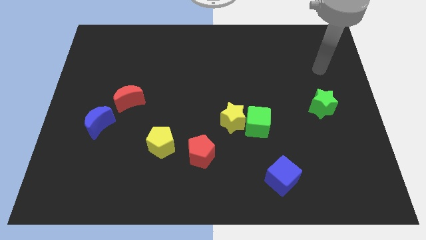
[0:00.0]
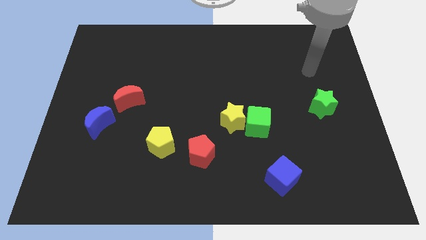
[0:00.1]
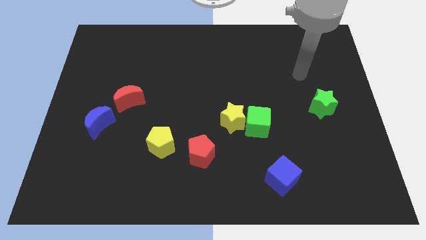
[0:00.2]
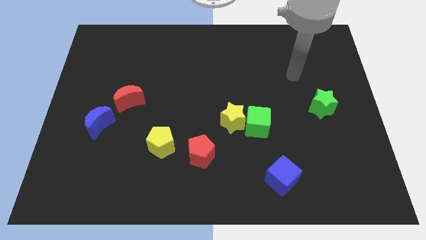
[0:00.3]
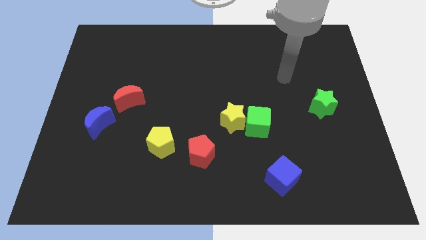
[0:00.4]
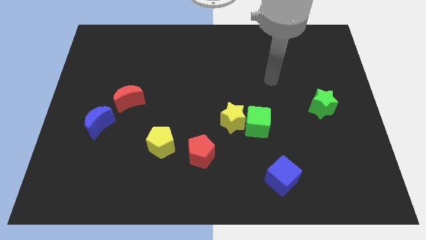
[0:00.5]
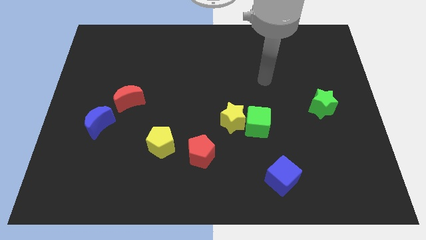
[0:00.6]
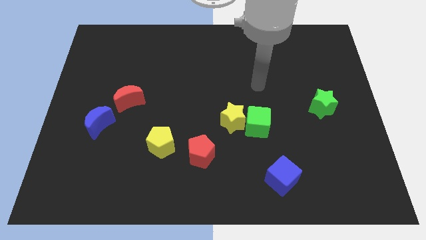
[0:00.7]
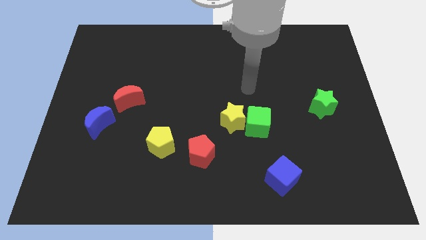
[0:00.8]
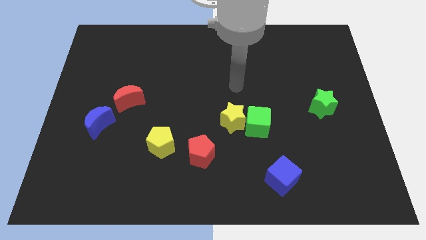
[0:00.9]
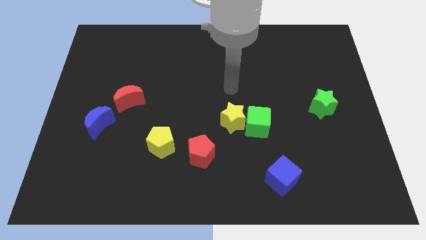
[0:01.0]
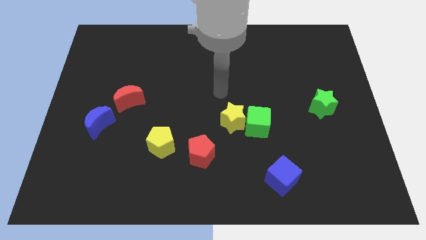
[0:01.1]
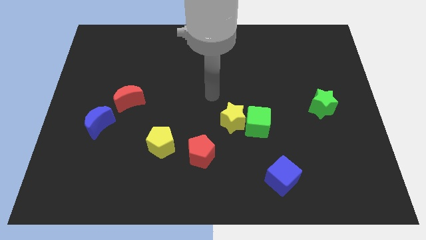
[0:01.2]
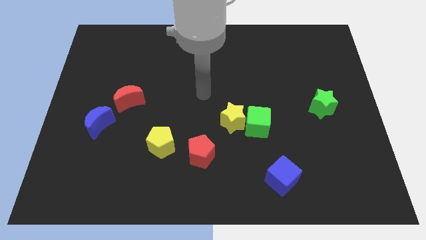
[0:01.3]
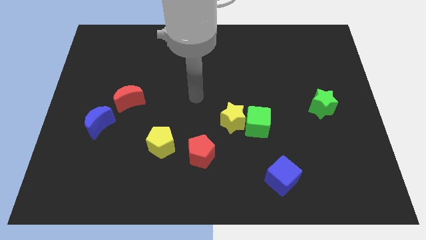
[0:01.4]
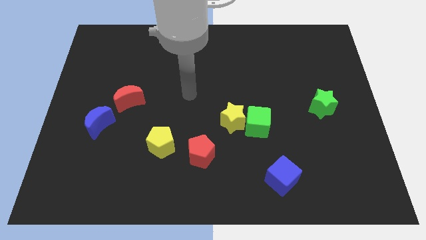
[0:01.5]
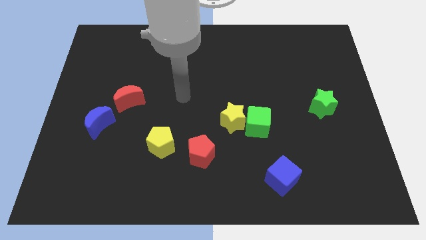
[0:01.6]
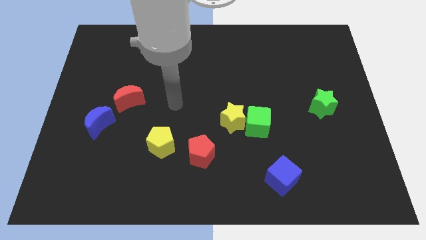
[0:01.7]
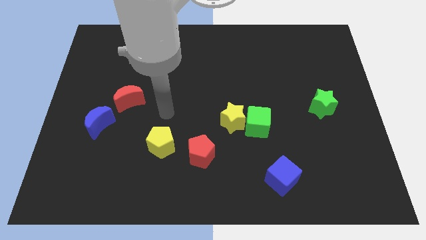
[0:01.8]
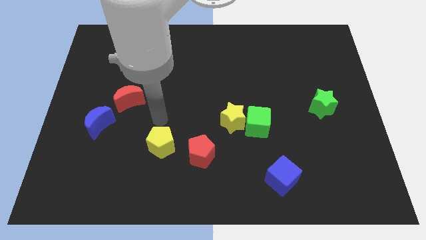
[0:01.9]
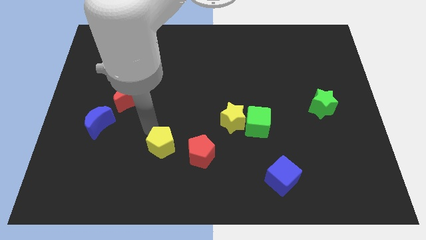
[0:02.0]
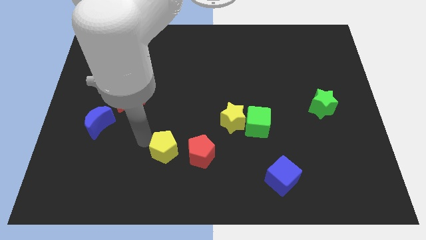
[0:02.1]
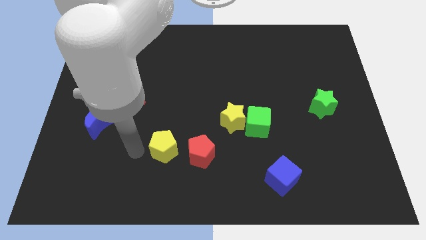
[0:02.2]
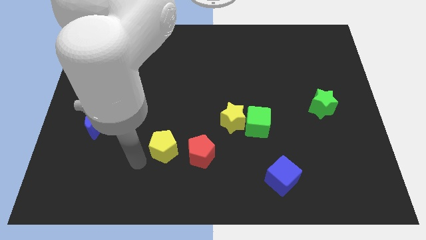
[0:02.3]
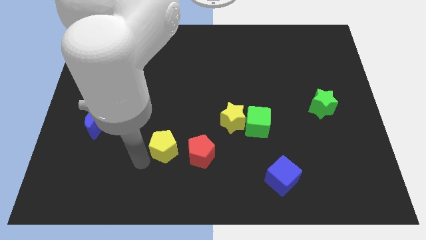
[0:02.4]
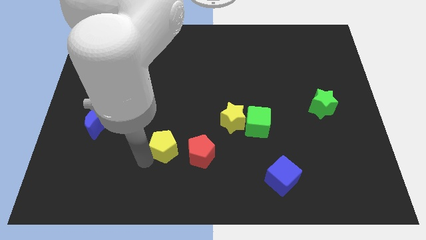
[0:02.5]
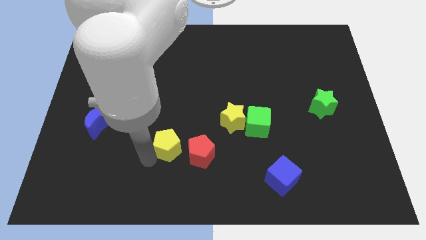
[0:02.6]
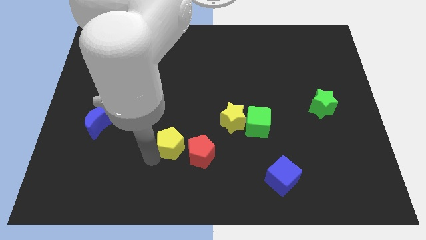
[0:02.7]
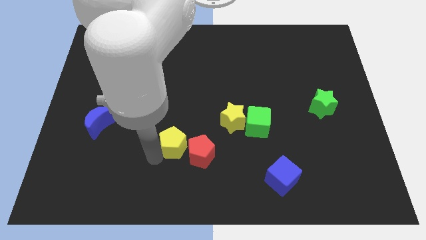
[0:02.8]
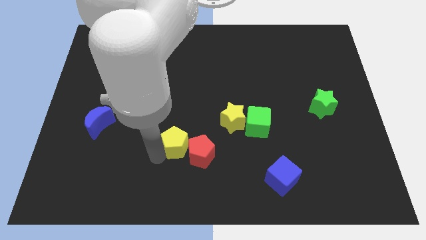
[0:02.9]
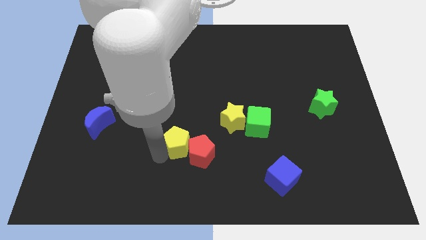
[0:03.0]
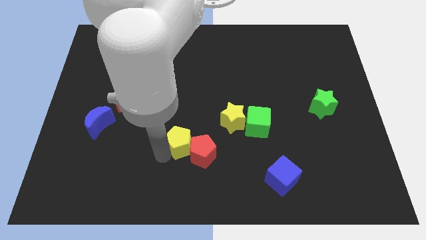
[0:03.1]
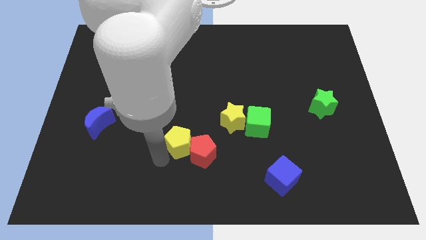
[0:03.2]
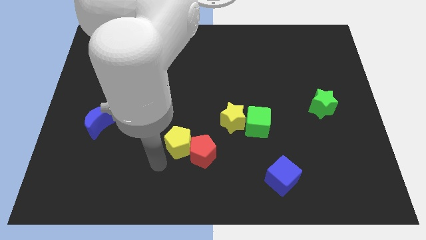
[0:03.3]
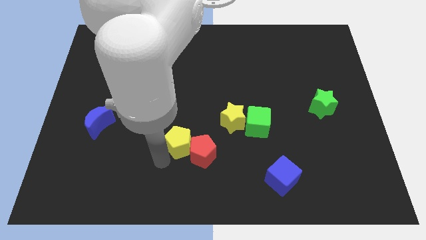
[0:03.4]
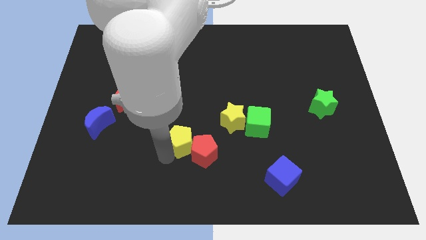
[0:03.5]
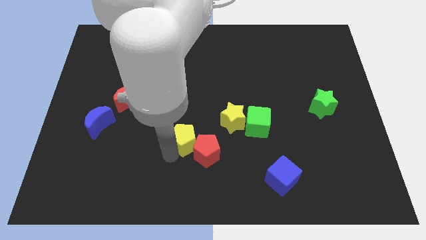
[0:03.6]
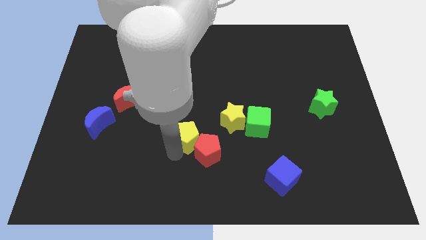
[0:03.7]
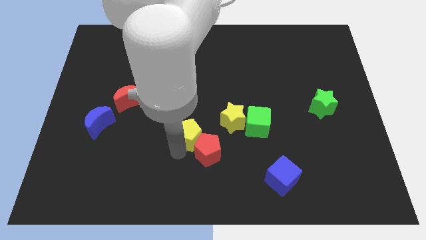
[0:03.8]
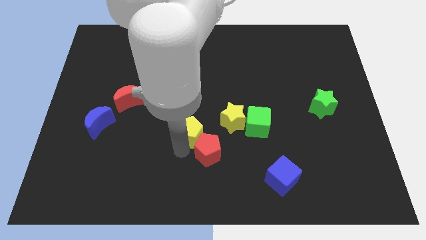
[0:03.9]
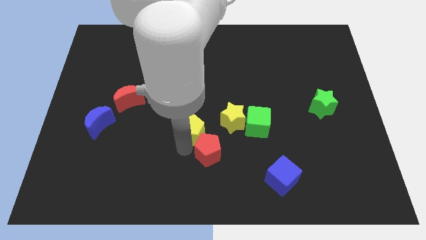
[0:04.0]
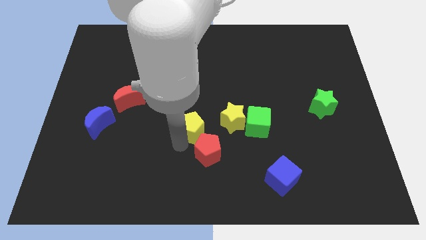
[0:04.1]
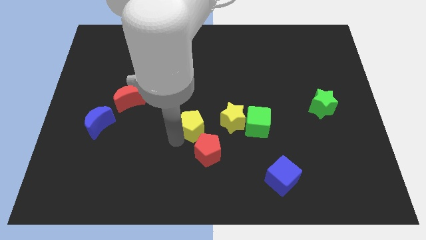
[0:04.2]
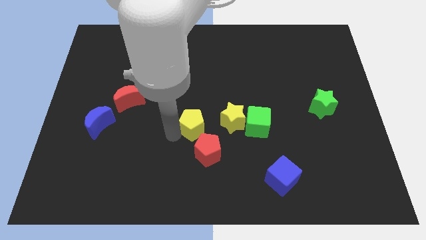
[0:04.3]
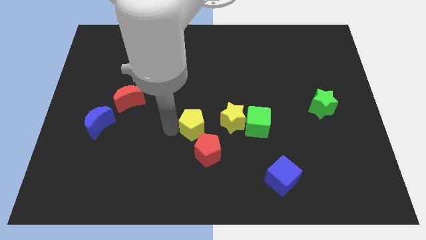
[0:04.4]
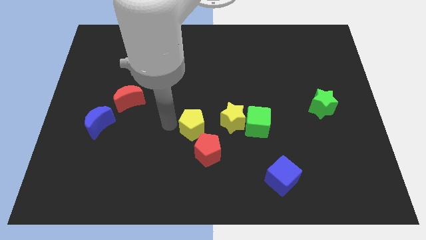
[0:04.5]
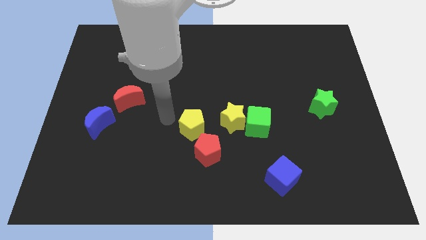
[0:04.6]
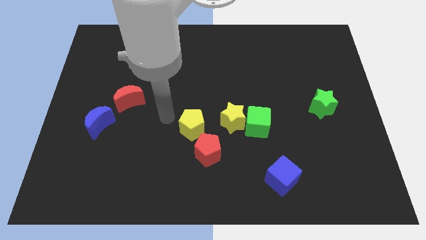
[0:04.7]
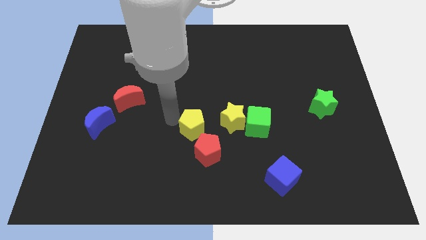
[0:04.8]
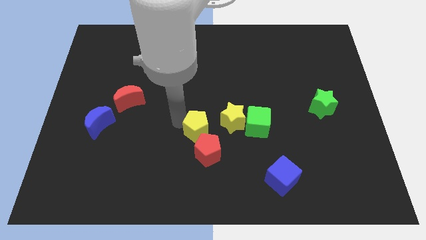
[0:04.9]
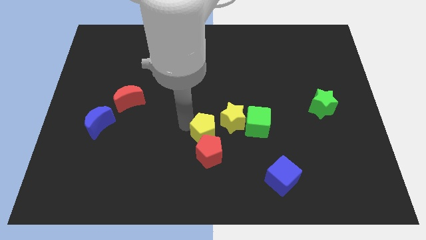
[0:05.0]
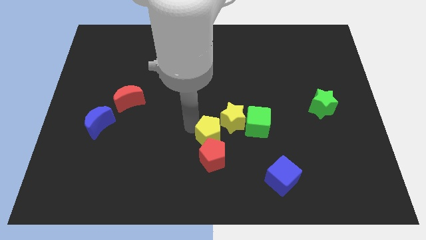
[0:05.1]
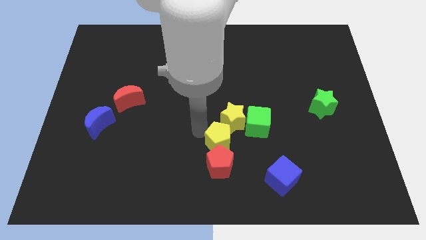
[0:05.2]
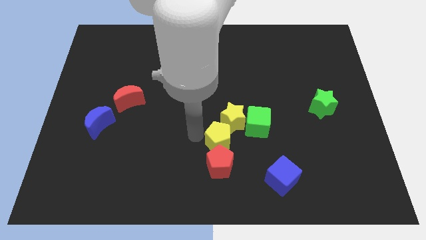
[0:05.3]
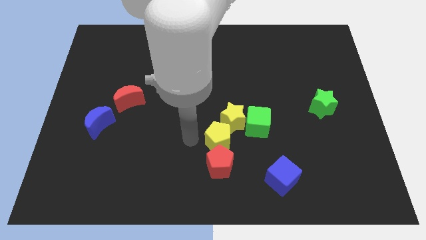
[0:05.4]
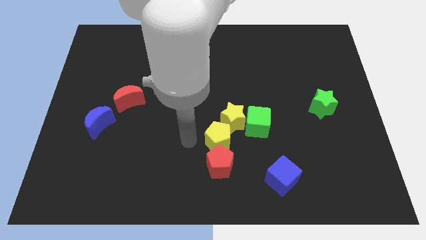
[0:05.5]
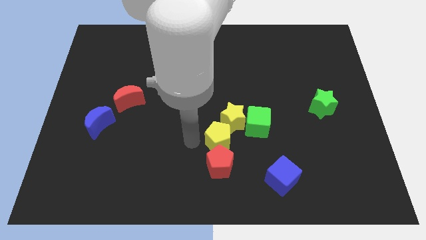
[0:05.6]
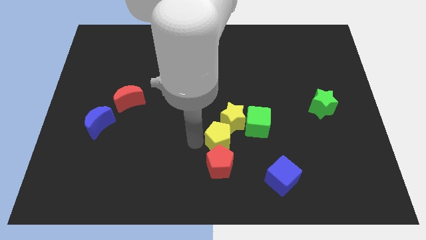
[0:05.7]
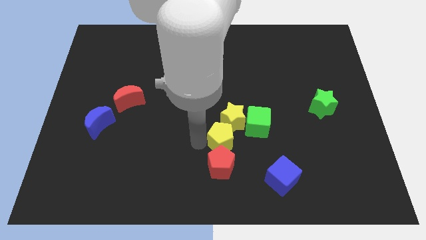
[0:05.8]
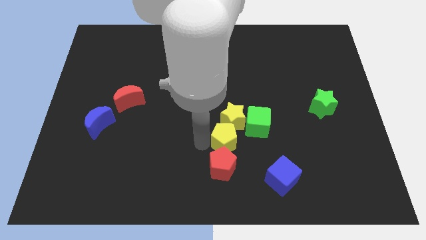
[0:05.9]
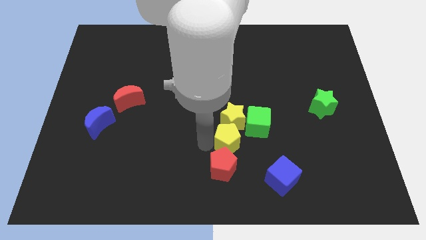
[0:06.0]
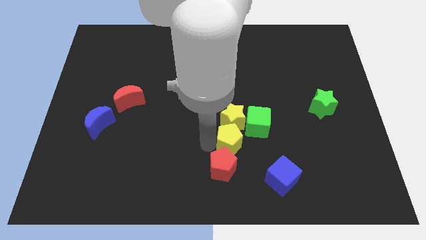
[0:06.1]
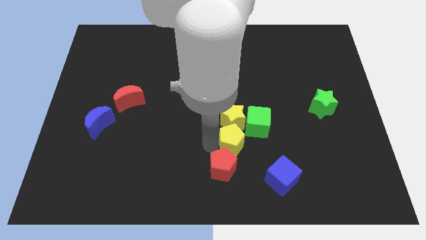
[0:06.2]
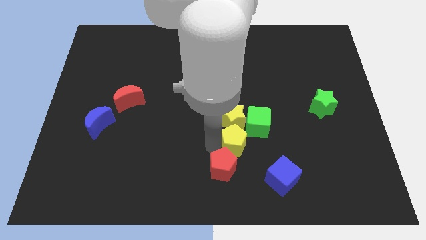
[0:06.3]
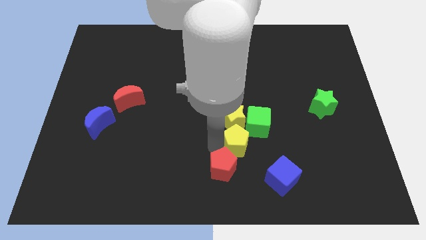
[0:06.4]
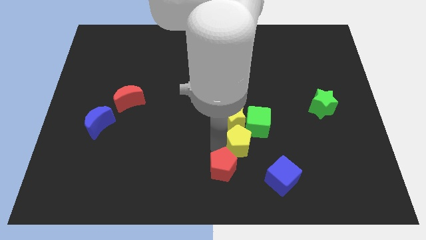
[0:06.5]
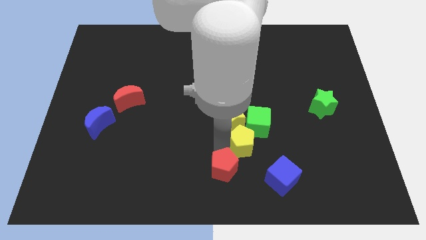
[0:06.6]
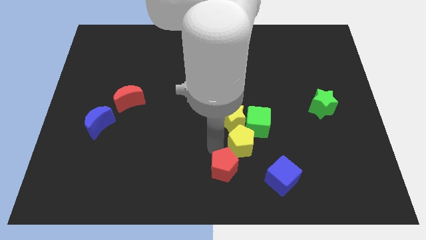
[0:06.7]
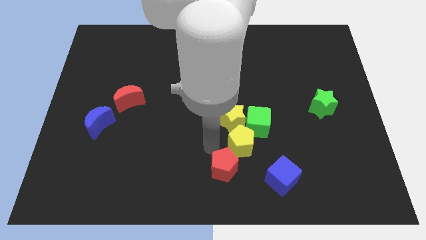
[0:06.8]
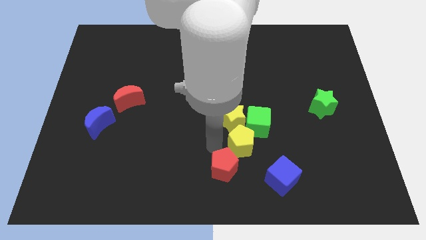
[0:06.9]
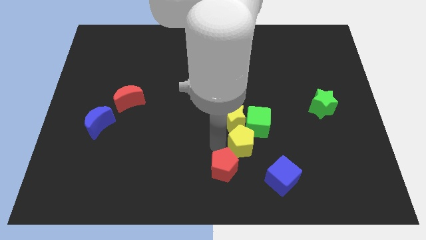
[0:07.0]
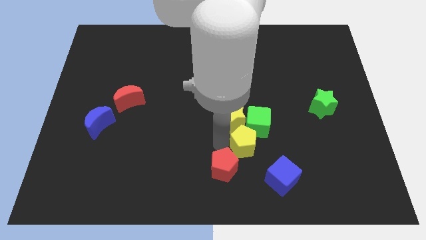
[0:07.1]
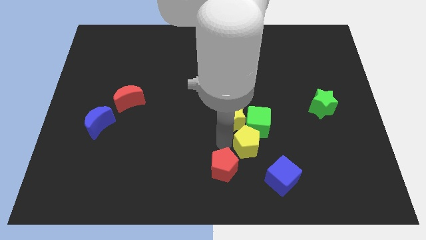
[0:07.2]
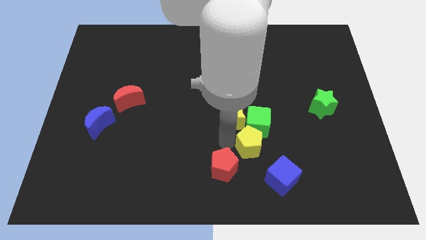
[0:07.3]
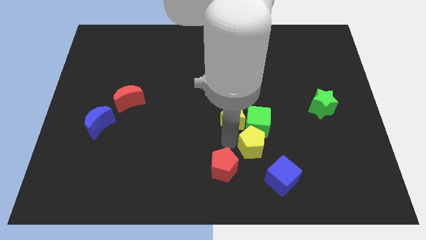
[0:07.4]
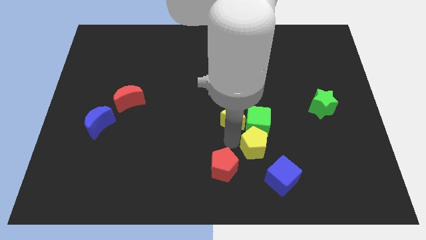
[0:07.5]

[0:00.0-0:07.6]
push the yellow pentagon right
